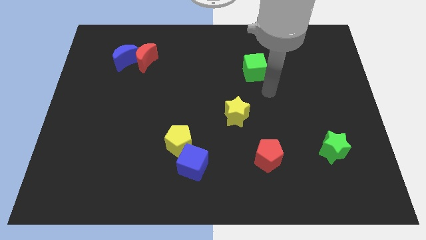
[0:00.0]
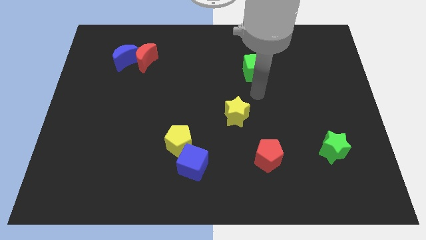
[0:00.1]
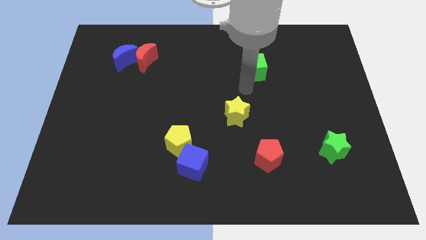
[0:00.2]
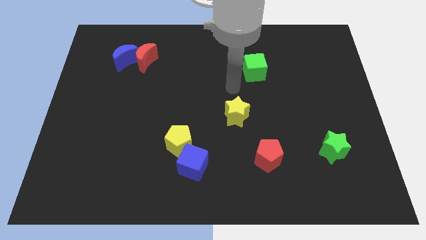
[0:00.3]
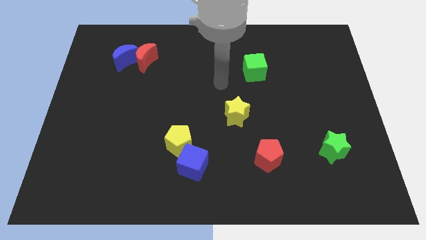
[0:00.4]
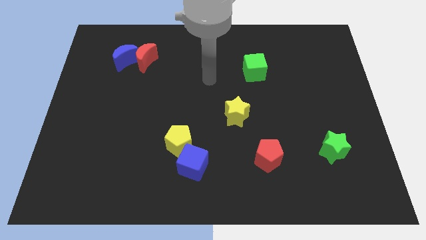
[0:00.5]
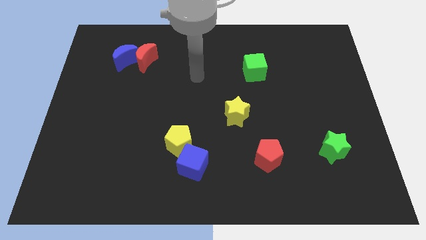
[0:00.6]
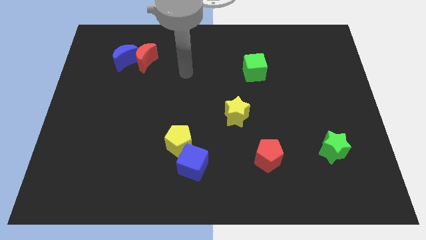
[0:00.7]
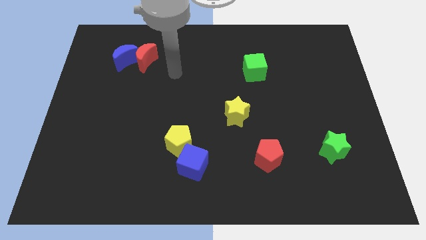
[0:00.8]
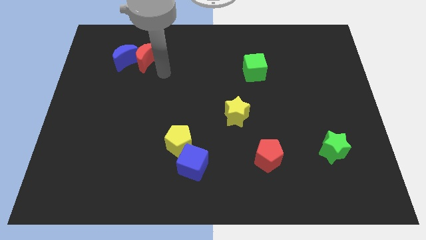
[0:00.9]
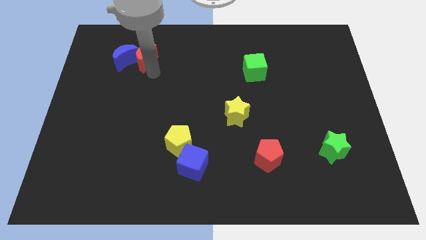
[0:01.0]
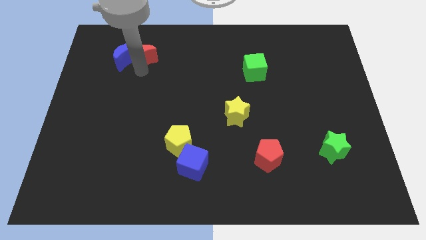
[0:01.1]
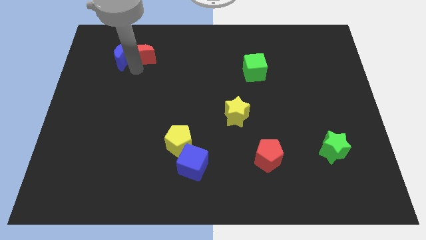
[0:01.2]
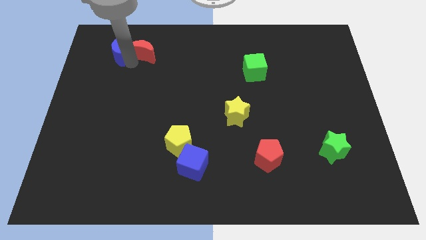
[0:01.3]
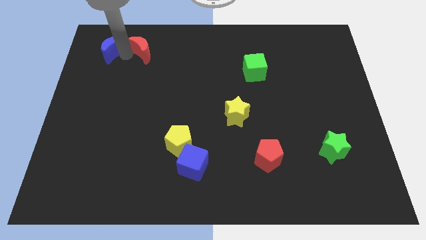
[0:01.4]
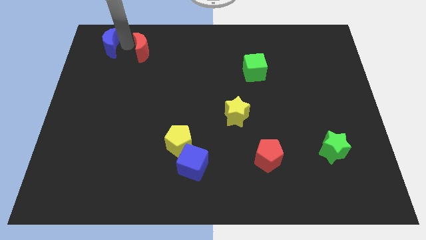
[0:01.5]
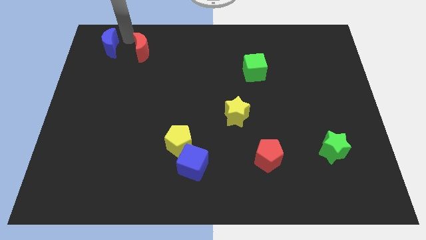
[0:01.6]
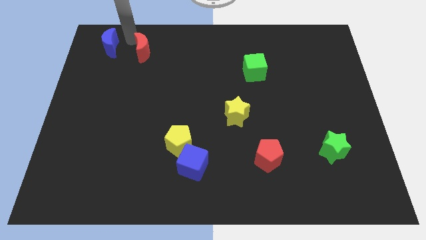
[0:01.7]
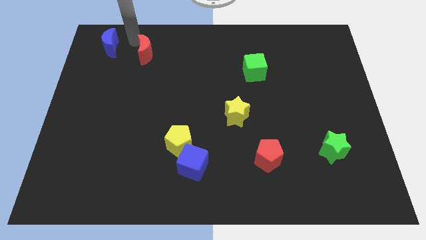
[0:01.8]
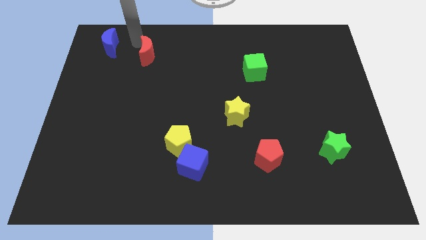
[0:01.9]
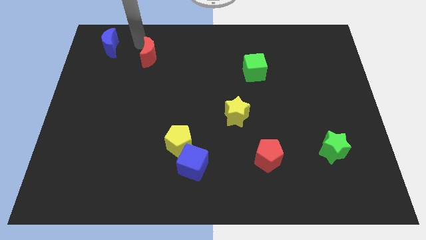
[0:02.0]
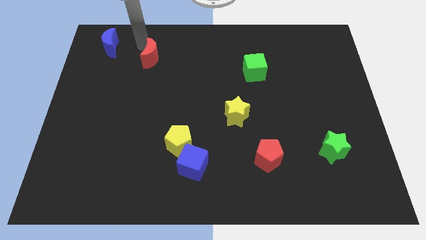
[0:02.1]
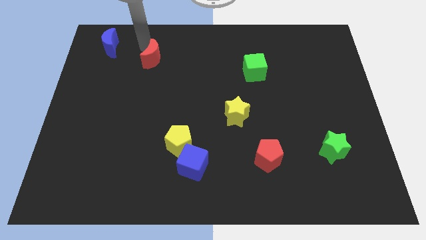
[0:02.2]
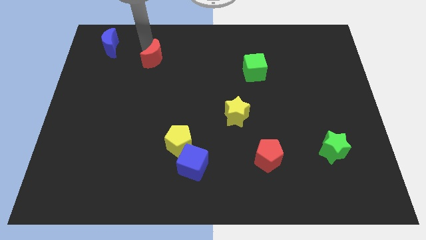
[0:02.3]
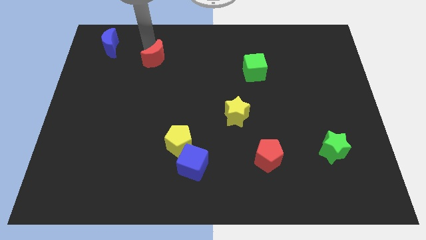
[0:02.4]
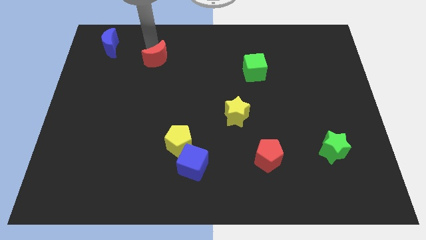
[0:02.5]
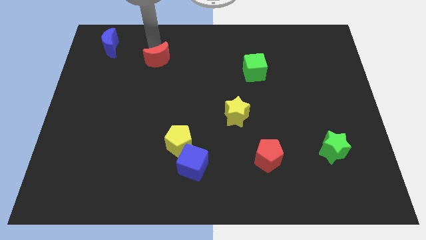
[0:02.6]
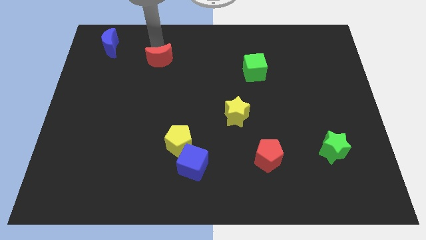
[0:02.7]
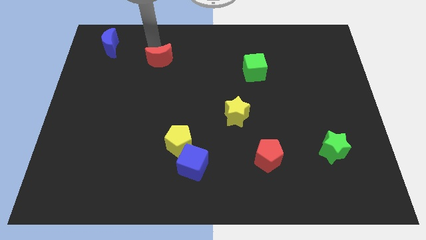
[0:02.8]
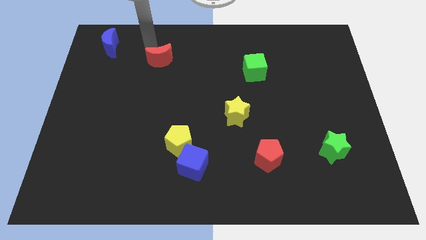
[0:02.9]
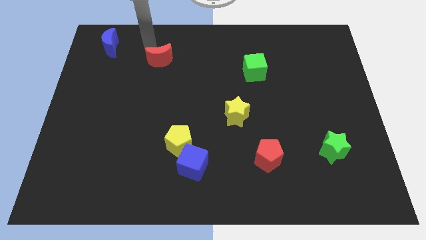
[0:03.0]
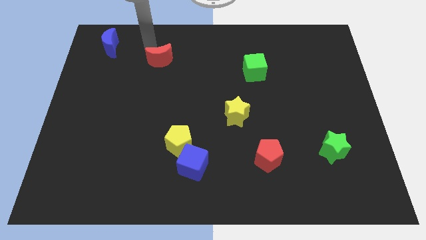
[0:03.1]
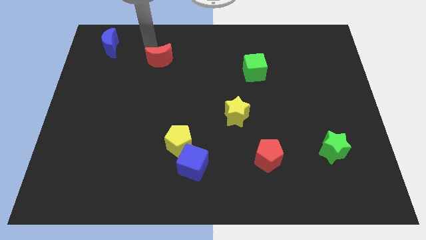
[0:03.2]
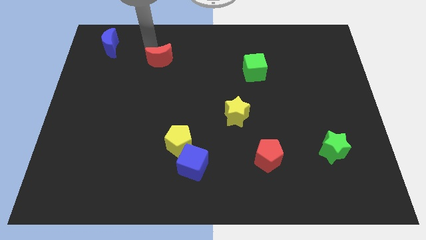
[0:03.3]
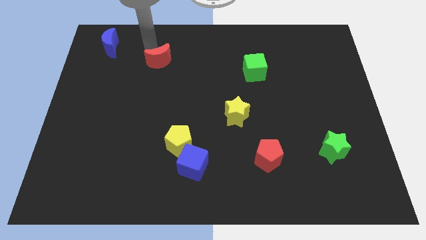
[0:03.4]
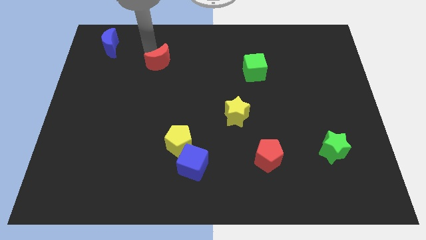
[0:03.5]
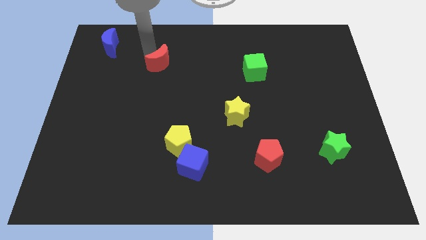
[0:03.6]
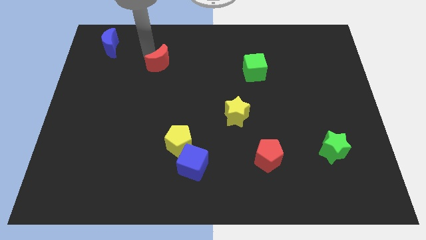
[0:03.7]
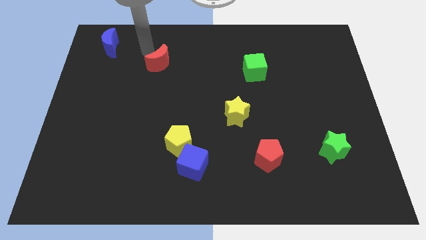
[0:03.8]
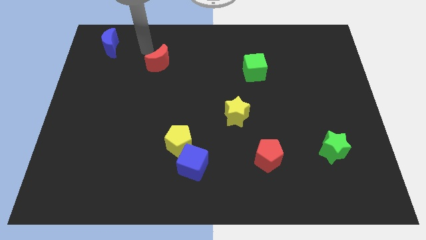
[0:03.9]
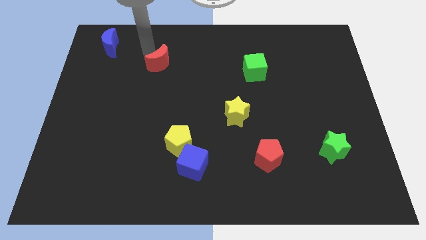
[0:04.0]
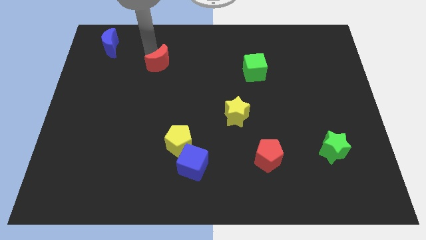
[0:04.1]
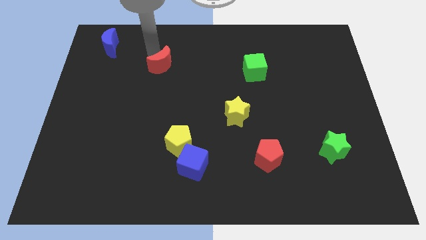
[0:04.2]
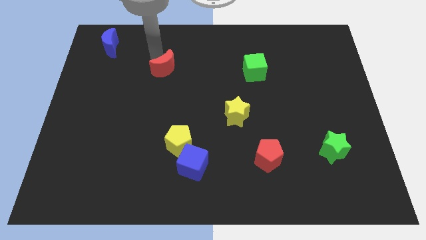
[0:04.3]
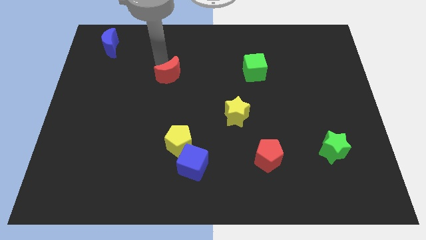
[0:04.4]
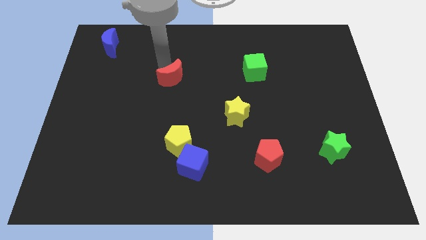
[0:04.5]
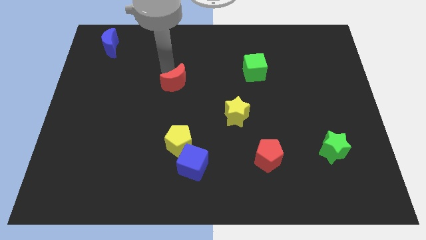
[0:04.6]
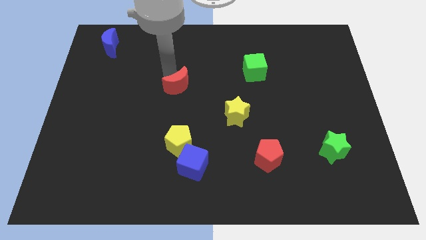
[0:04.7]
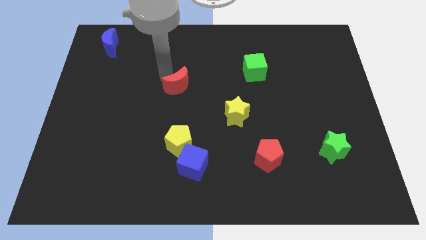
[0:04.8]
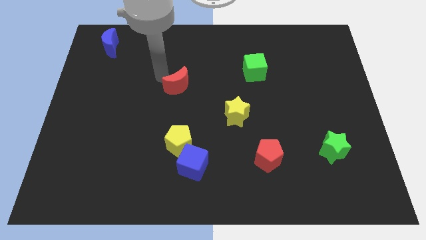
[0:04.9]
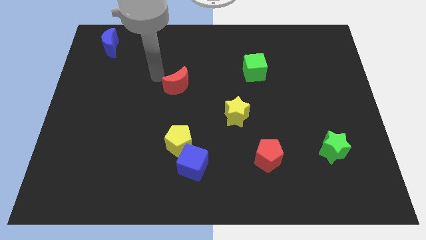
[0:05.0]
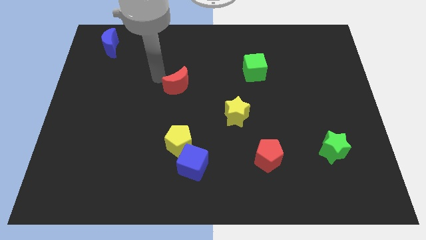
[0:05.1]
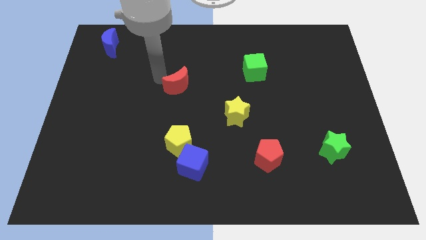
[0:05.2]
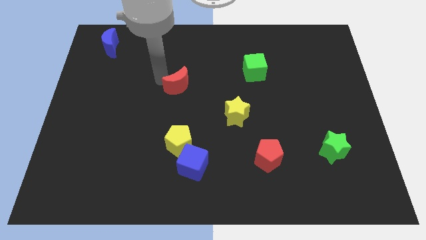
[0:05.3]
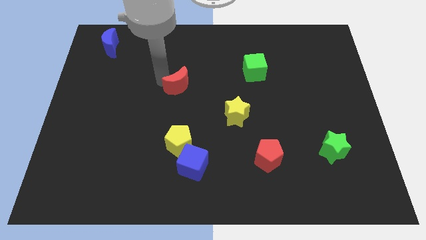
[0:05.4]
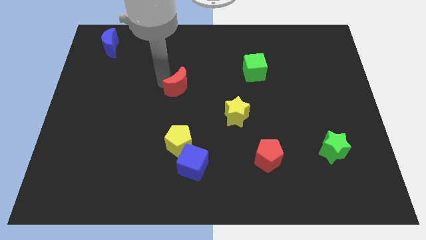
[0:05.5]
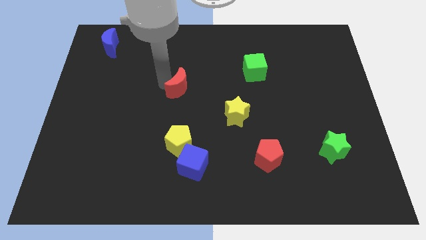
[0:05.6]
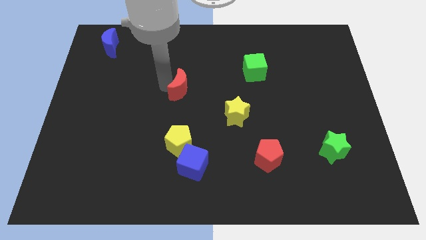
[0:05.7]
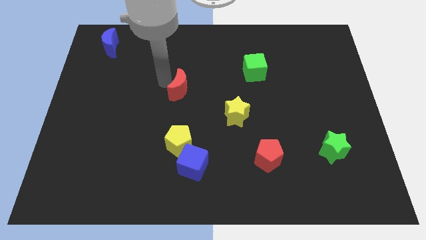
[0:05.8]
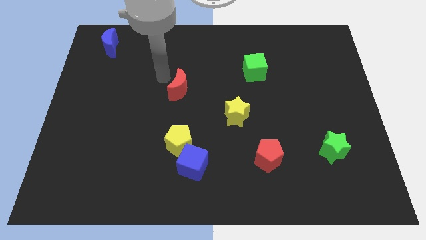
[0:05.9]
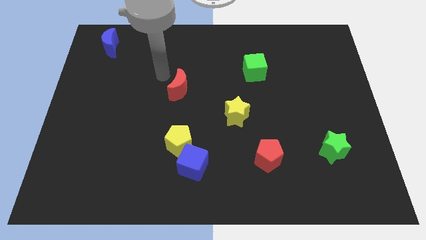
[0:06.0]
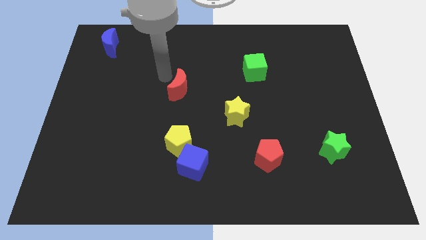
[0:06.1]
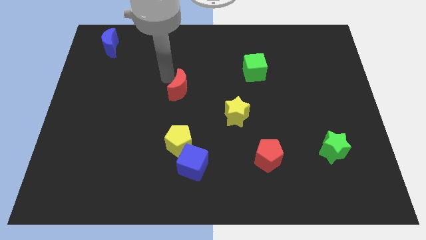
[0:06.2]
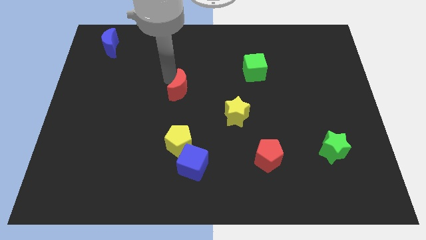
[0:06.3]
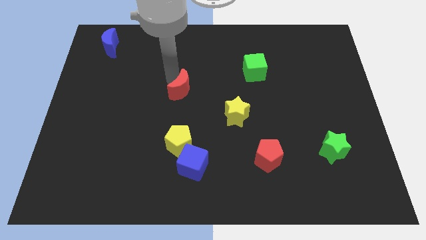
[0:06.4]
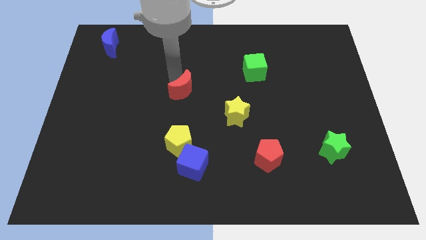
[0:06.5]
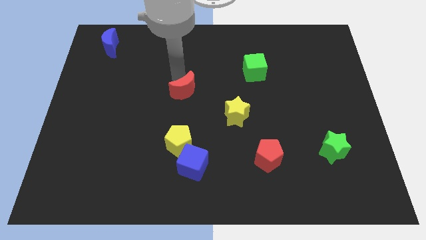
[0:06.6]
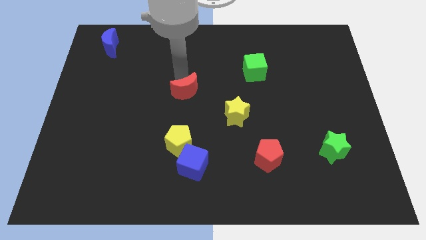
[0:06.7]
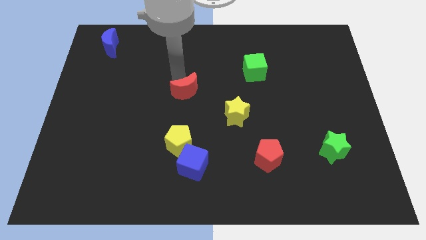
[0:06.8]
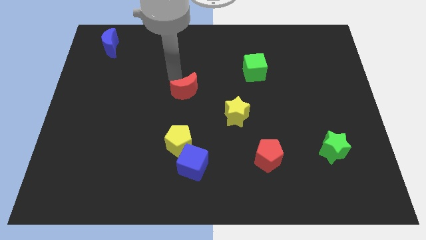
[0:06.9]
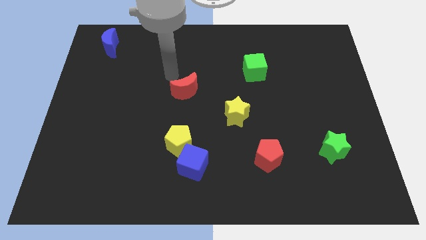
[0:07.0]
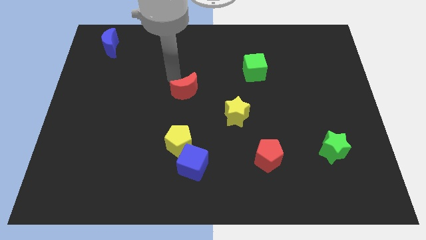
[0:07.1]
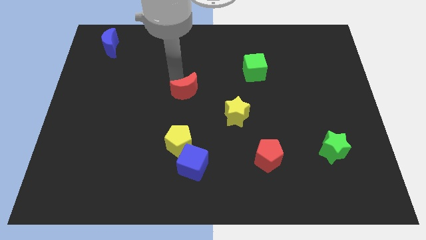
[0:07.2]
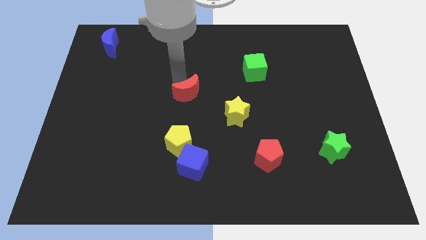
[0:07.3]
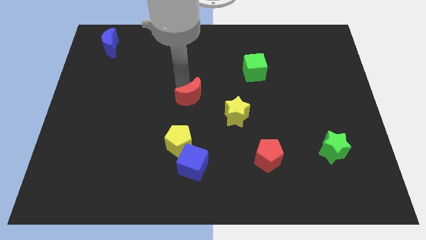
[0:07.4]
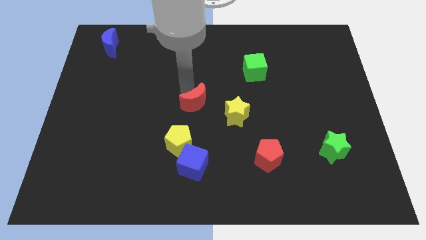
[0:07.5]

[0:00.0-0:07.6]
slide the red moon down and then to the right

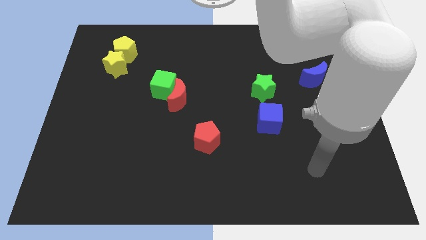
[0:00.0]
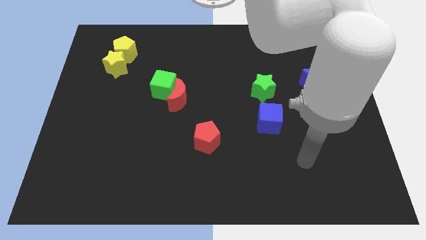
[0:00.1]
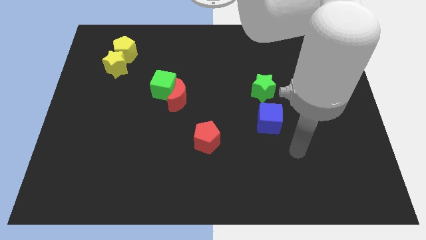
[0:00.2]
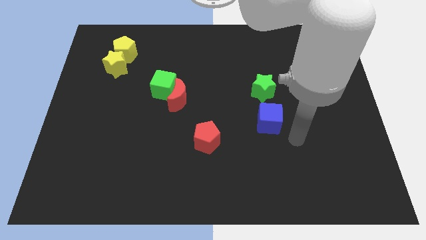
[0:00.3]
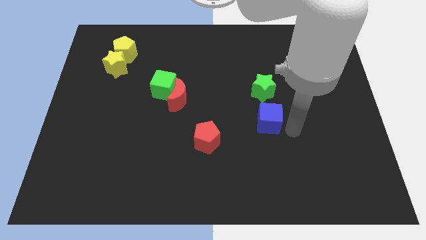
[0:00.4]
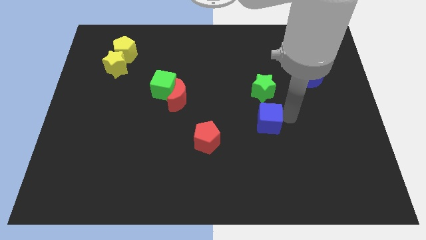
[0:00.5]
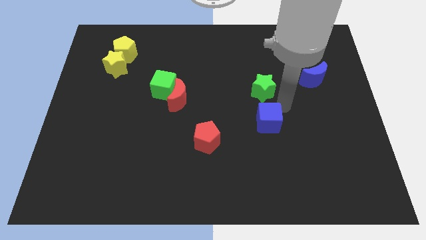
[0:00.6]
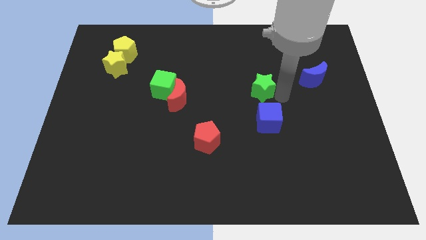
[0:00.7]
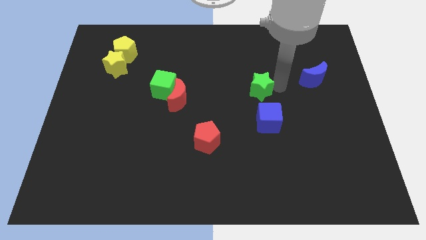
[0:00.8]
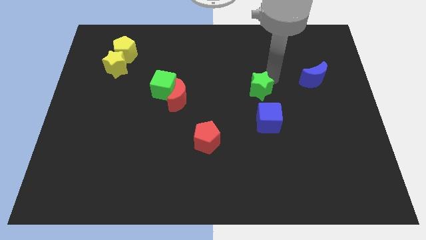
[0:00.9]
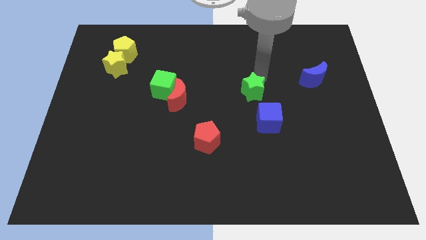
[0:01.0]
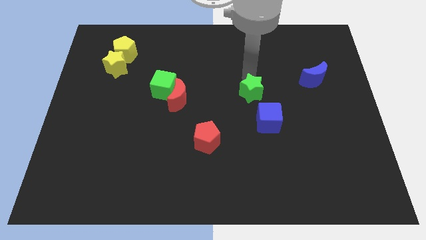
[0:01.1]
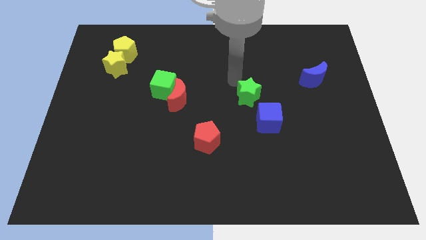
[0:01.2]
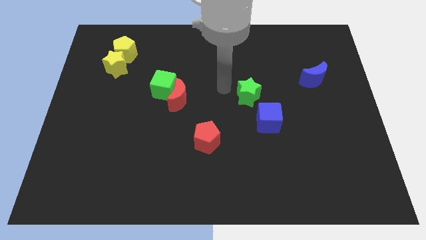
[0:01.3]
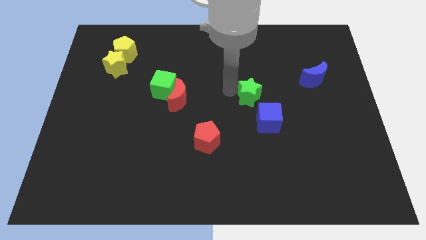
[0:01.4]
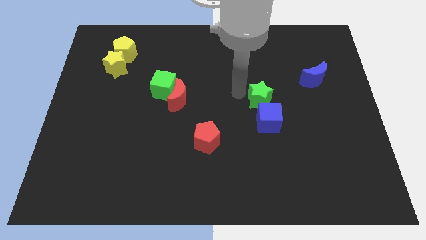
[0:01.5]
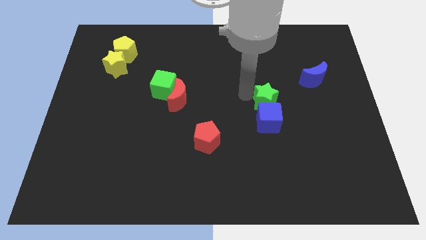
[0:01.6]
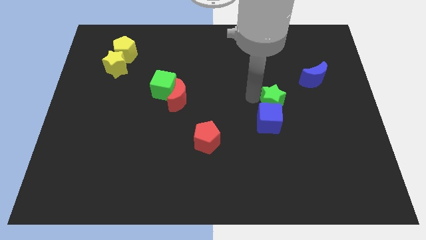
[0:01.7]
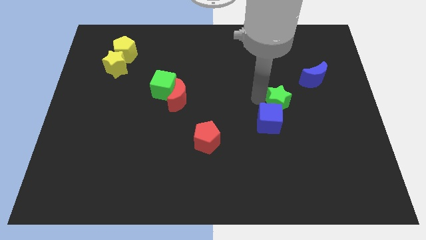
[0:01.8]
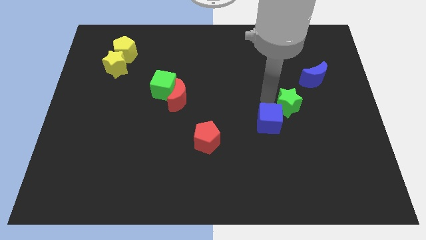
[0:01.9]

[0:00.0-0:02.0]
slide the green star downwards and right diagonally slightly
